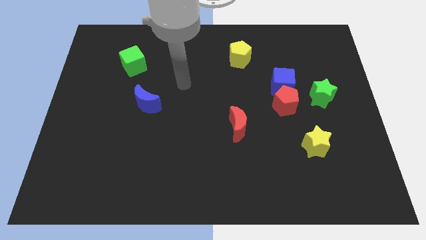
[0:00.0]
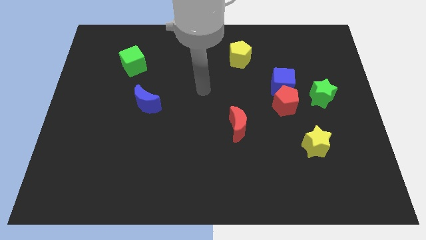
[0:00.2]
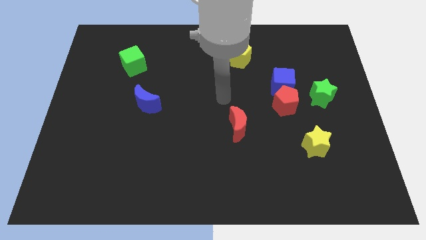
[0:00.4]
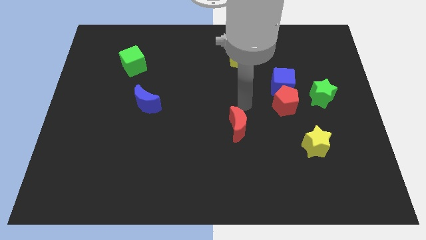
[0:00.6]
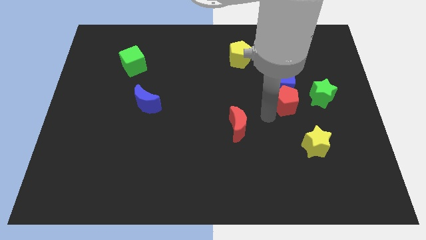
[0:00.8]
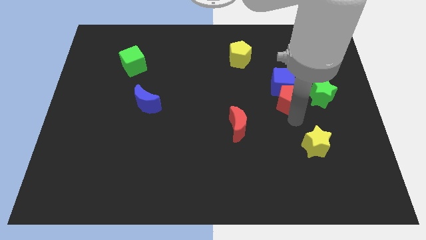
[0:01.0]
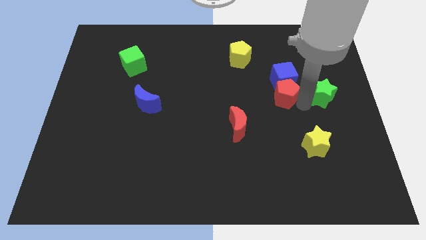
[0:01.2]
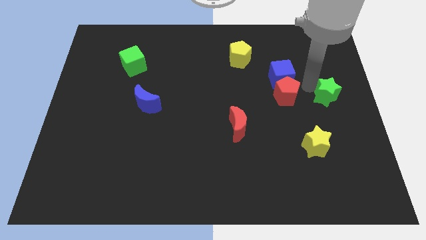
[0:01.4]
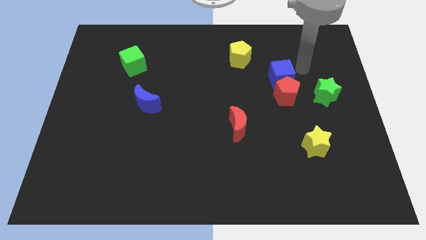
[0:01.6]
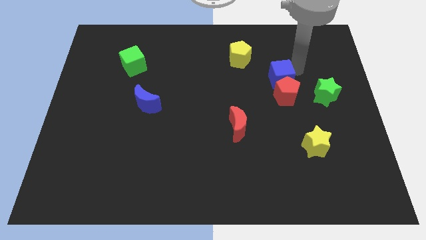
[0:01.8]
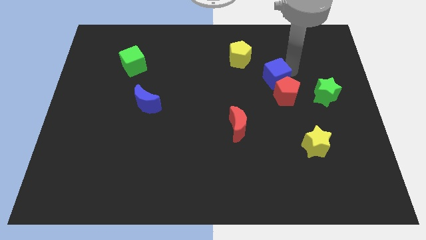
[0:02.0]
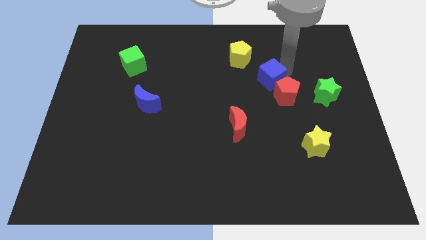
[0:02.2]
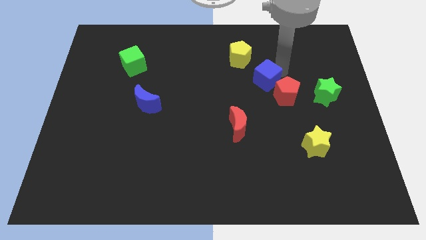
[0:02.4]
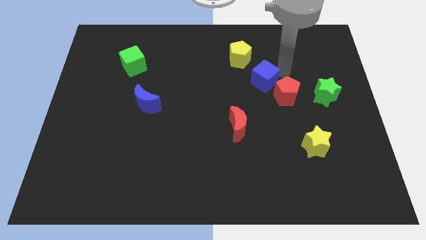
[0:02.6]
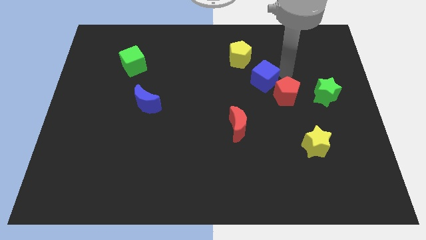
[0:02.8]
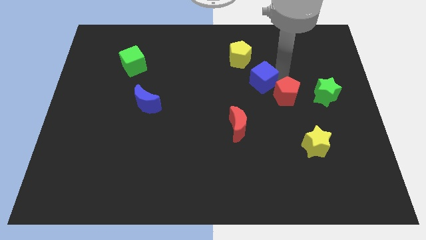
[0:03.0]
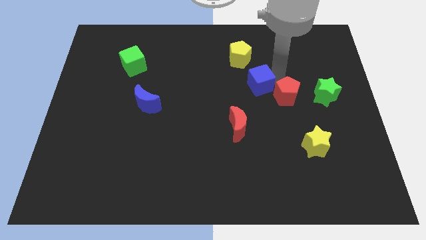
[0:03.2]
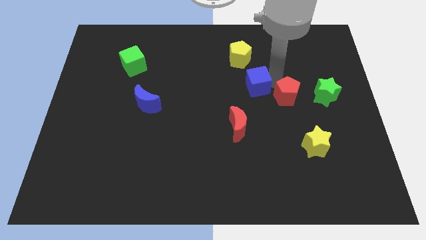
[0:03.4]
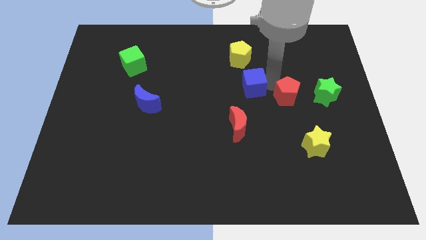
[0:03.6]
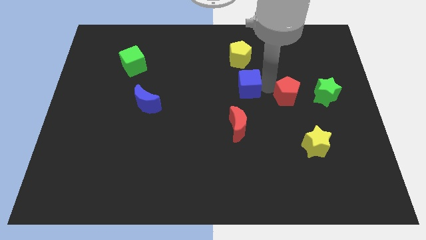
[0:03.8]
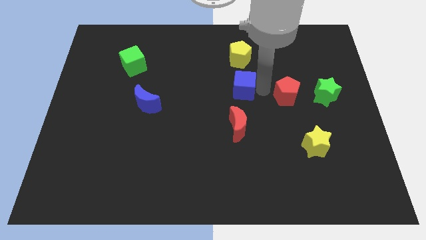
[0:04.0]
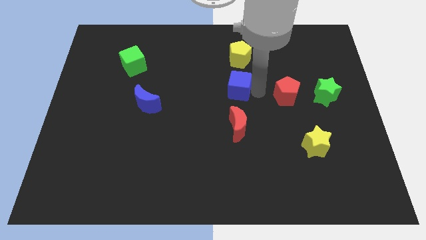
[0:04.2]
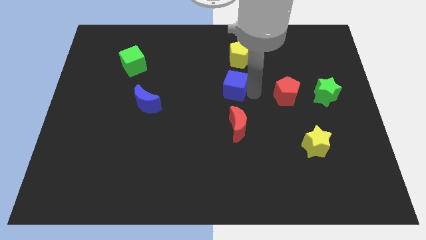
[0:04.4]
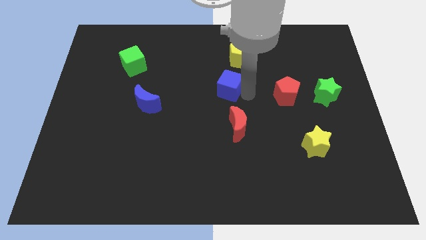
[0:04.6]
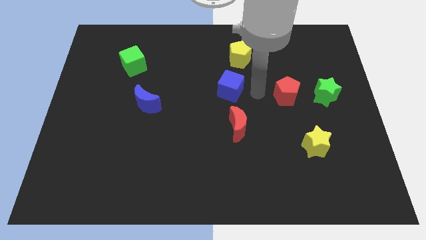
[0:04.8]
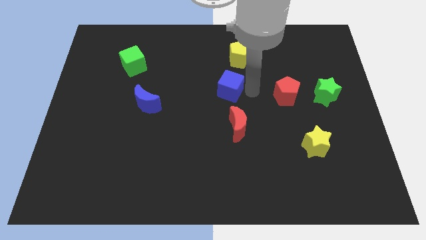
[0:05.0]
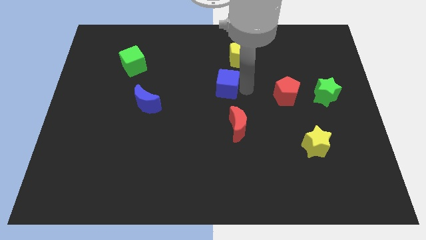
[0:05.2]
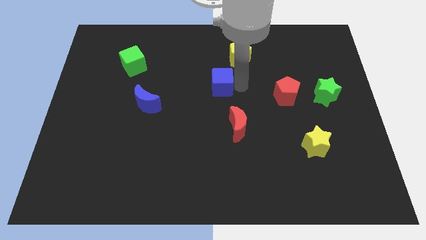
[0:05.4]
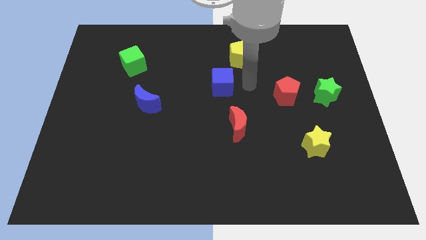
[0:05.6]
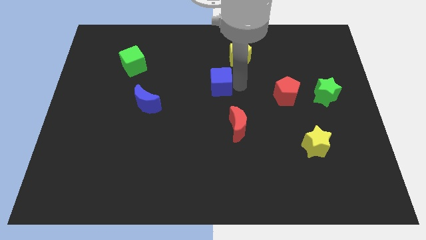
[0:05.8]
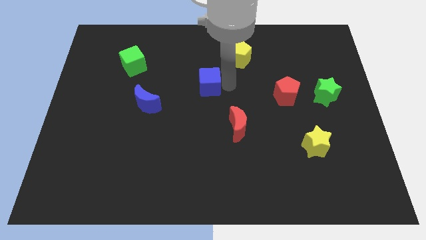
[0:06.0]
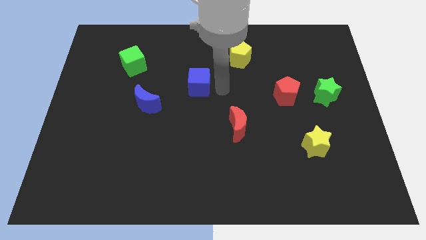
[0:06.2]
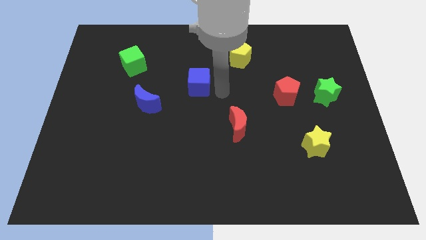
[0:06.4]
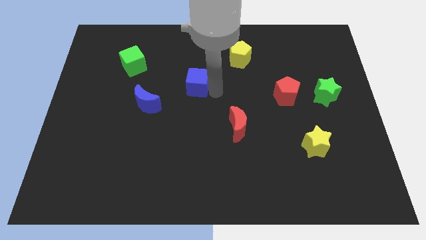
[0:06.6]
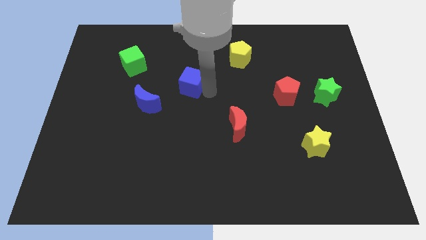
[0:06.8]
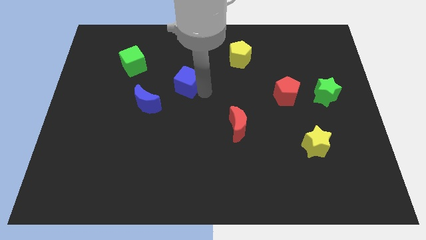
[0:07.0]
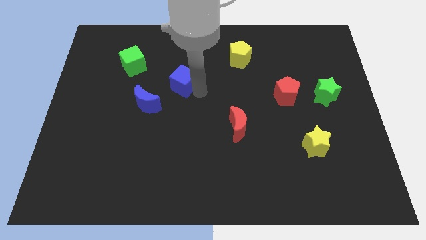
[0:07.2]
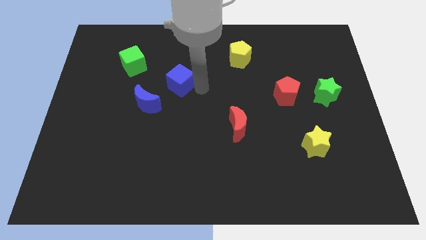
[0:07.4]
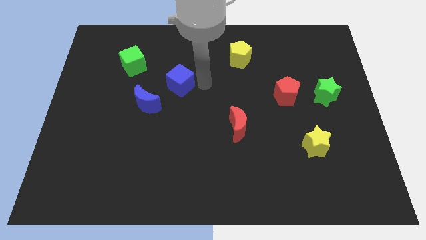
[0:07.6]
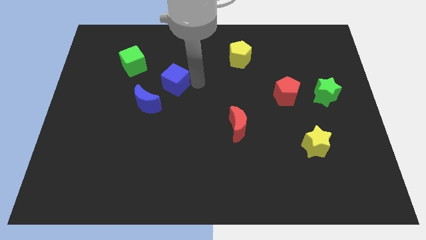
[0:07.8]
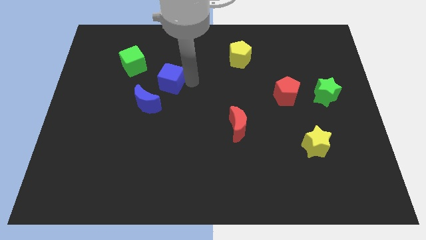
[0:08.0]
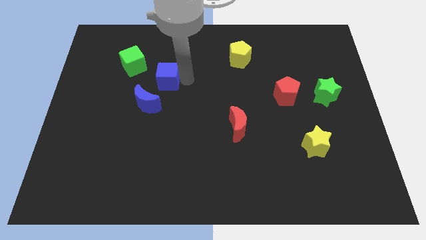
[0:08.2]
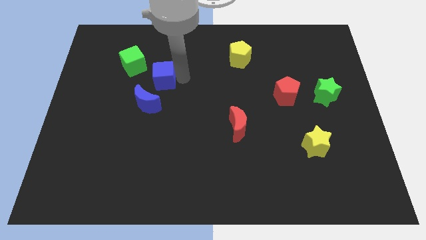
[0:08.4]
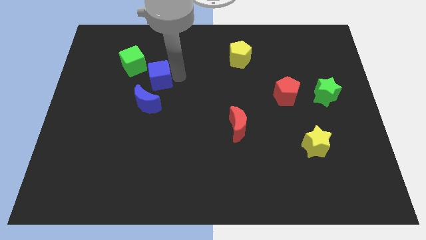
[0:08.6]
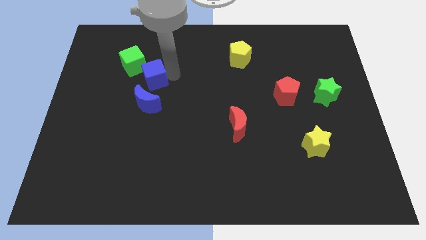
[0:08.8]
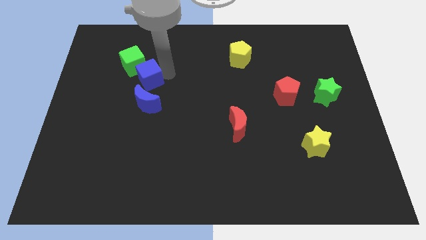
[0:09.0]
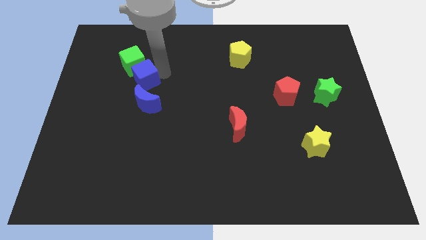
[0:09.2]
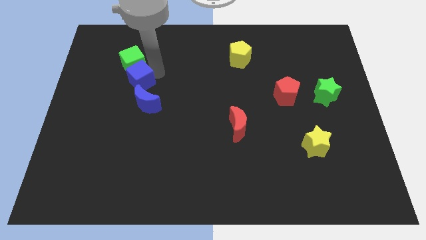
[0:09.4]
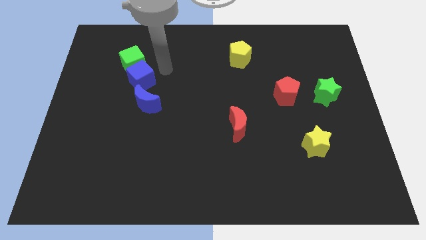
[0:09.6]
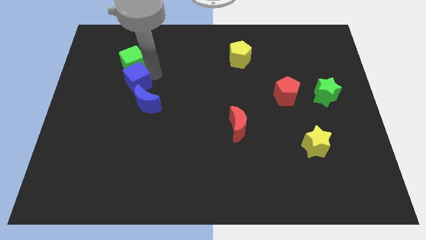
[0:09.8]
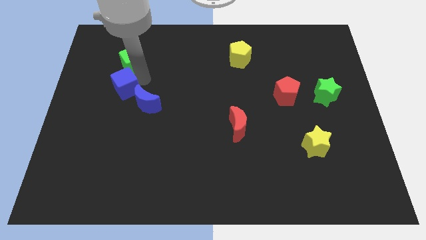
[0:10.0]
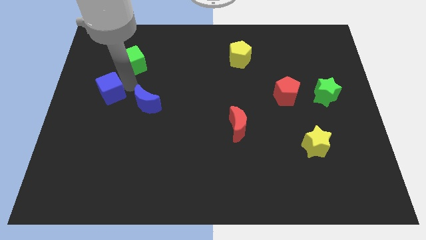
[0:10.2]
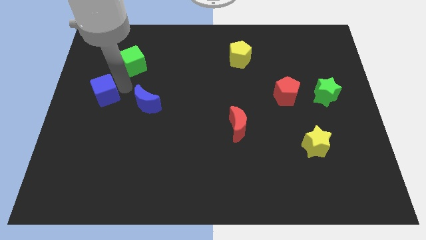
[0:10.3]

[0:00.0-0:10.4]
put the blue cube to the left side

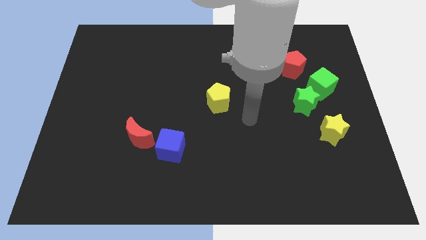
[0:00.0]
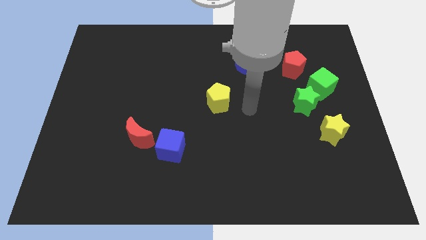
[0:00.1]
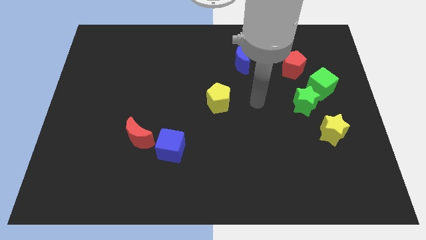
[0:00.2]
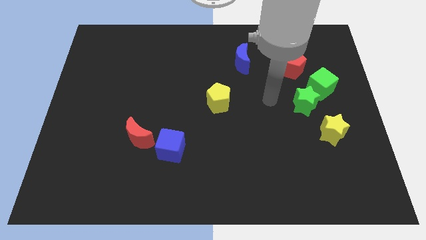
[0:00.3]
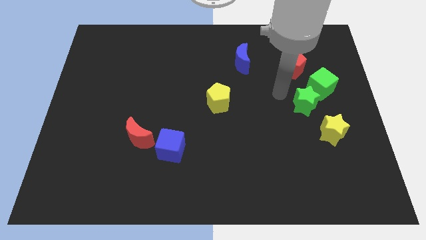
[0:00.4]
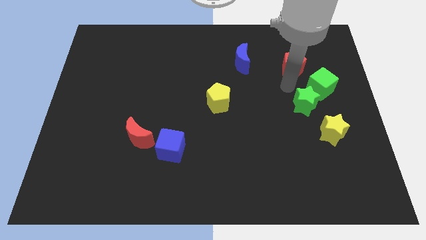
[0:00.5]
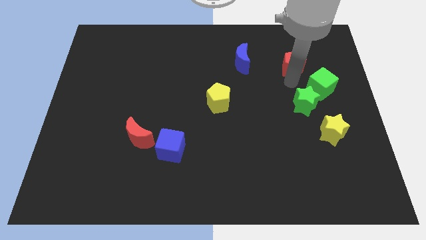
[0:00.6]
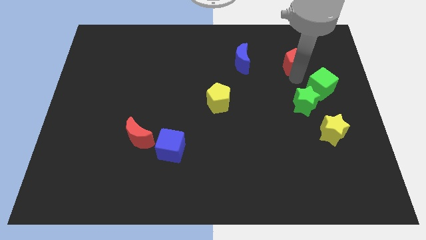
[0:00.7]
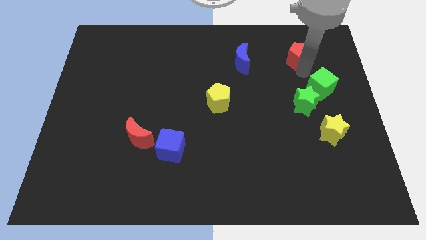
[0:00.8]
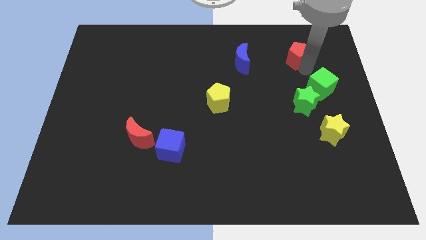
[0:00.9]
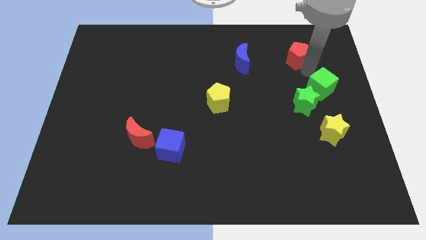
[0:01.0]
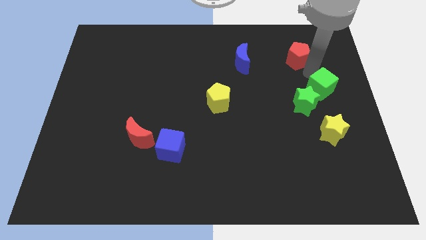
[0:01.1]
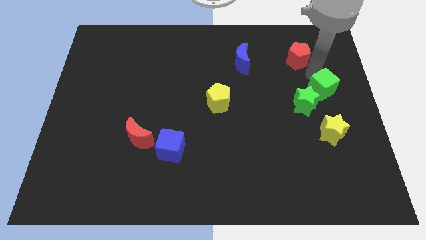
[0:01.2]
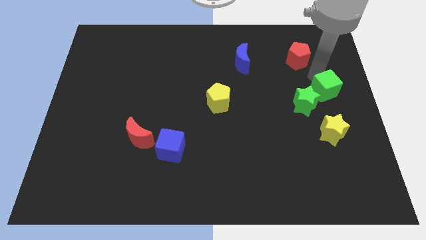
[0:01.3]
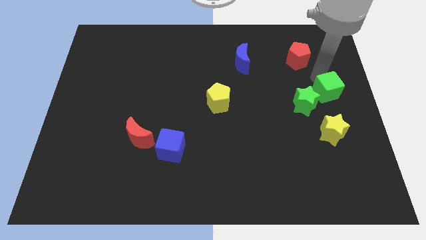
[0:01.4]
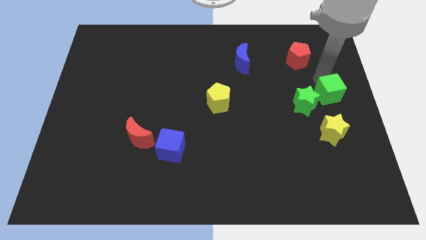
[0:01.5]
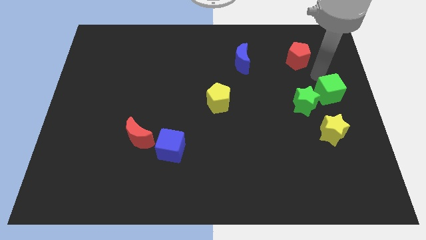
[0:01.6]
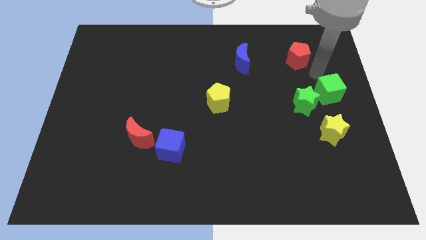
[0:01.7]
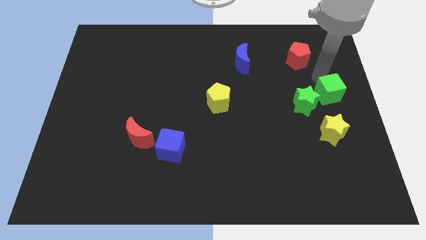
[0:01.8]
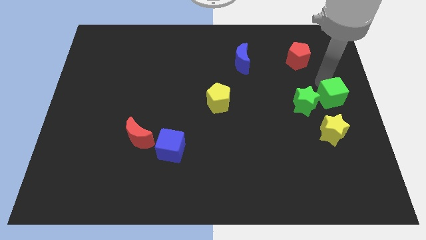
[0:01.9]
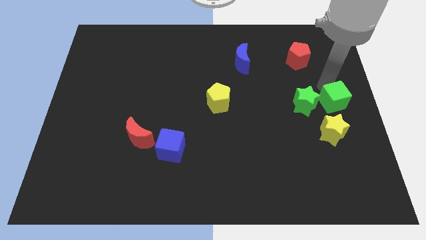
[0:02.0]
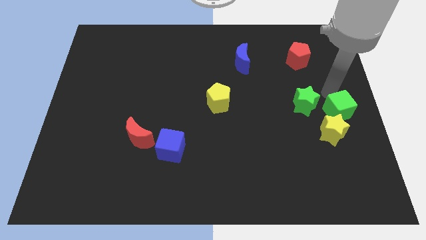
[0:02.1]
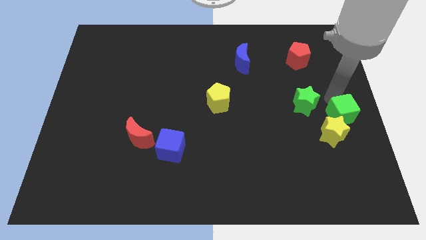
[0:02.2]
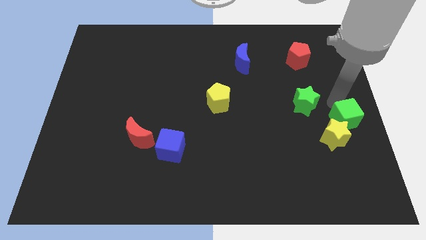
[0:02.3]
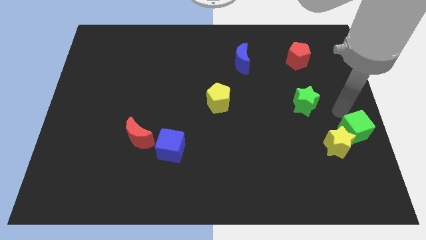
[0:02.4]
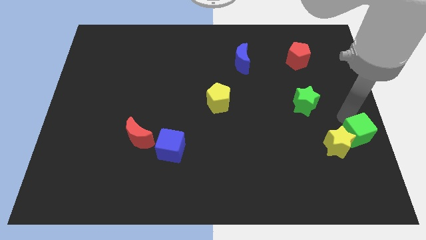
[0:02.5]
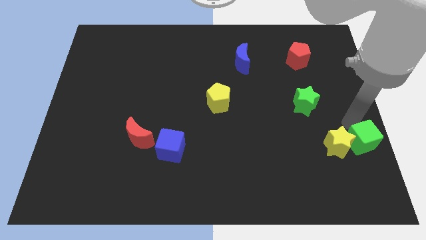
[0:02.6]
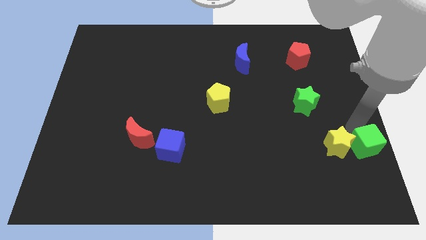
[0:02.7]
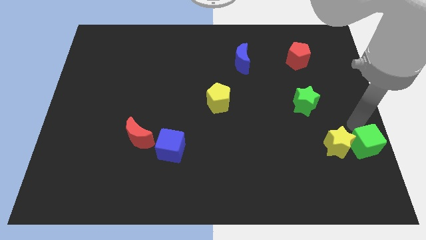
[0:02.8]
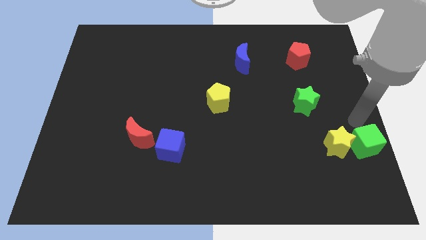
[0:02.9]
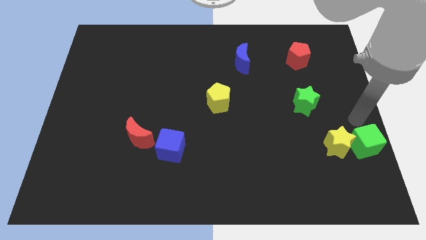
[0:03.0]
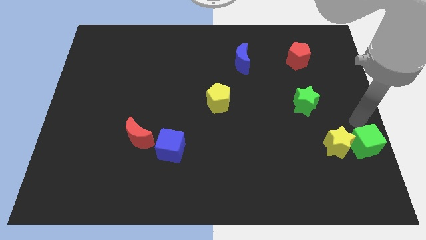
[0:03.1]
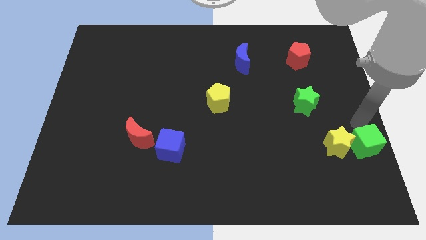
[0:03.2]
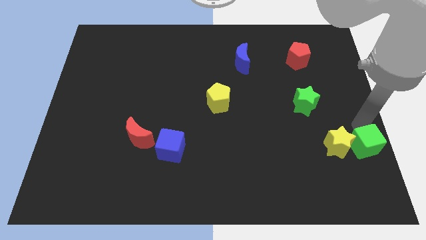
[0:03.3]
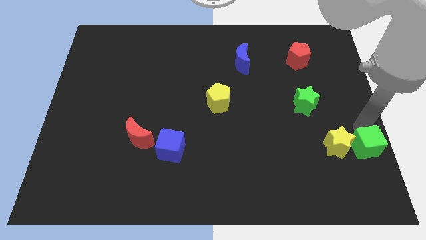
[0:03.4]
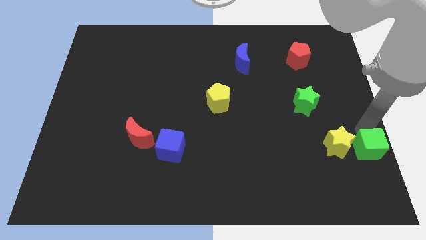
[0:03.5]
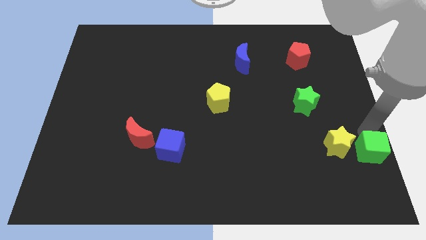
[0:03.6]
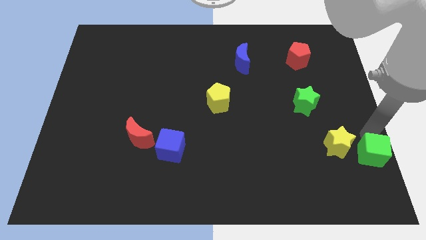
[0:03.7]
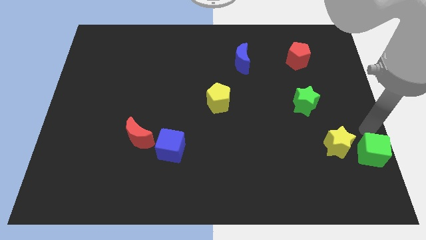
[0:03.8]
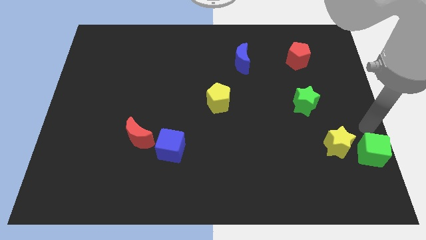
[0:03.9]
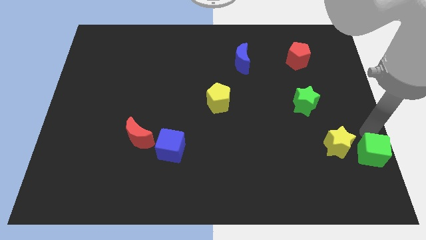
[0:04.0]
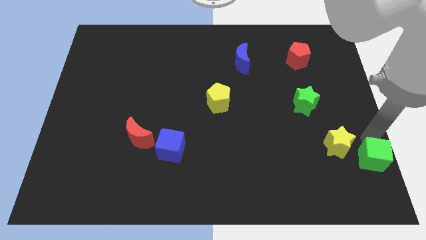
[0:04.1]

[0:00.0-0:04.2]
put the green cube to the bottom right of the board
